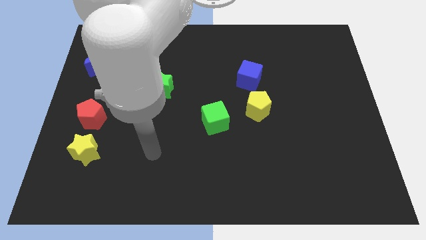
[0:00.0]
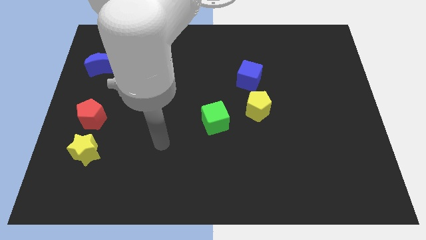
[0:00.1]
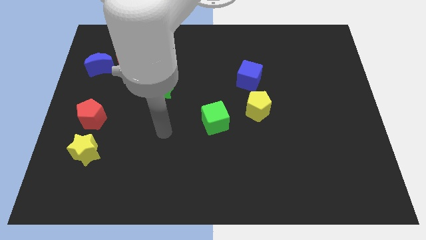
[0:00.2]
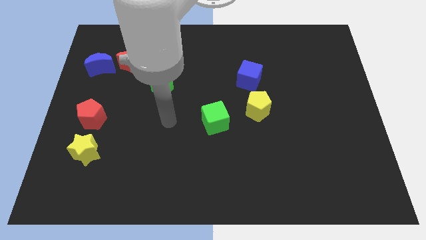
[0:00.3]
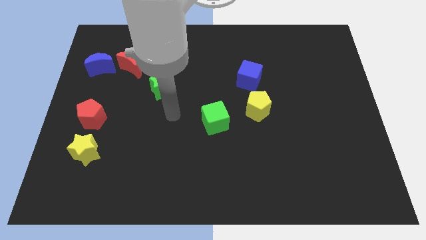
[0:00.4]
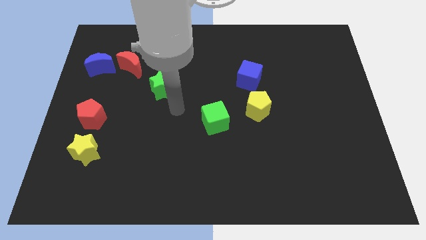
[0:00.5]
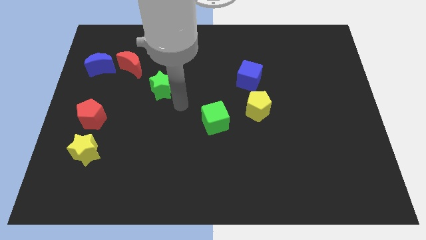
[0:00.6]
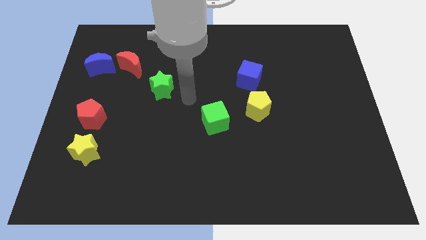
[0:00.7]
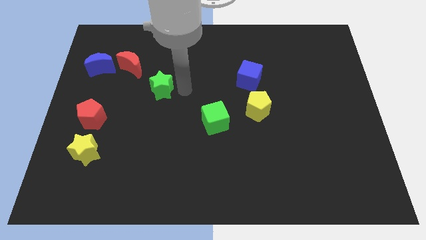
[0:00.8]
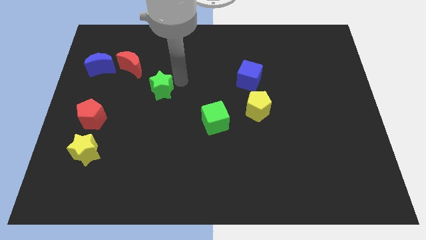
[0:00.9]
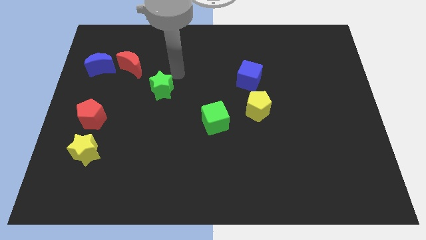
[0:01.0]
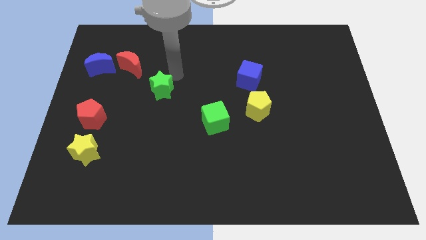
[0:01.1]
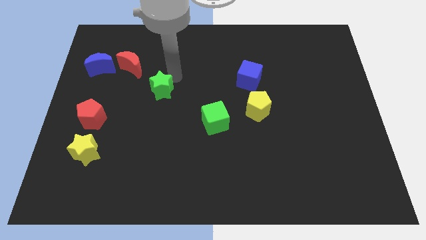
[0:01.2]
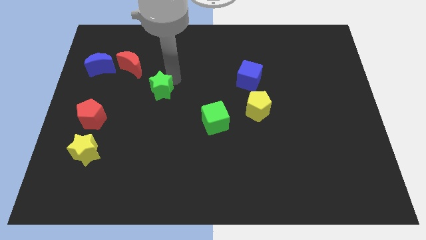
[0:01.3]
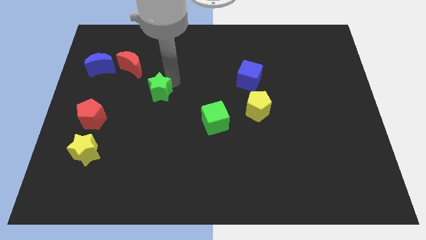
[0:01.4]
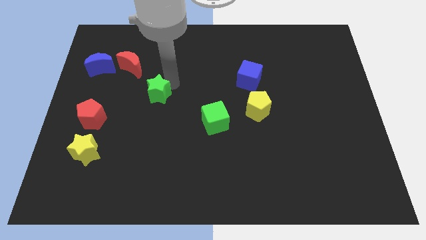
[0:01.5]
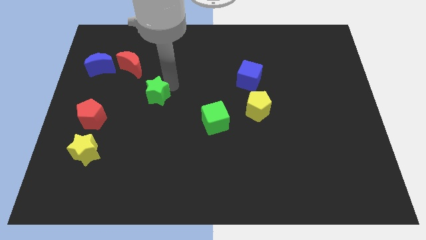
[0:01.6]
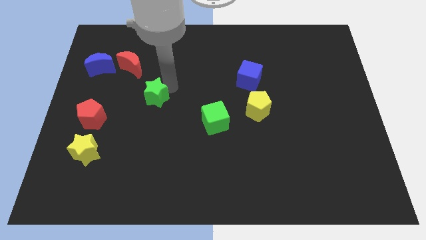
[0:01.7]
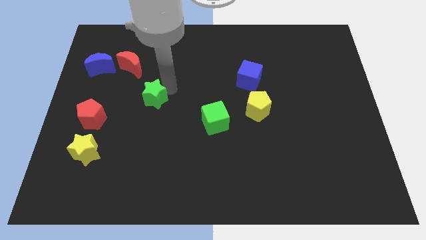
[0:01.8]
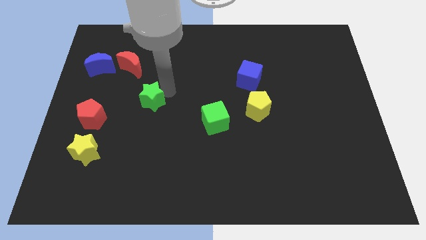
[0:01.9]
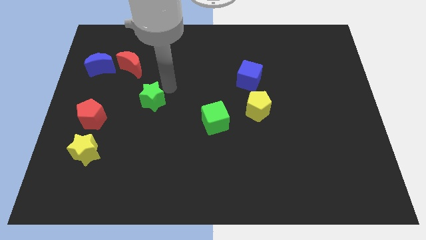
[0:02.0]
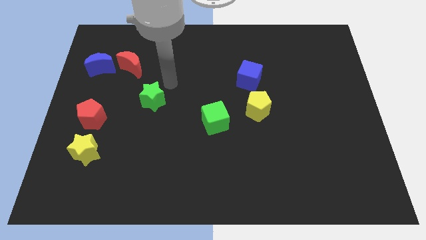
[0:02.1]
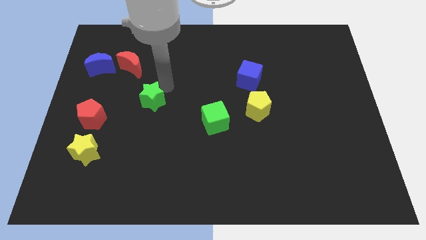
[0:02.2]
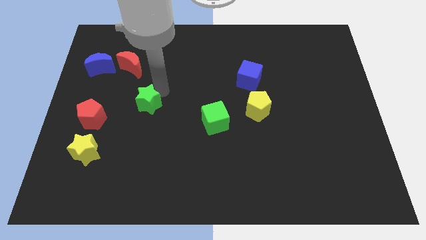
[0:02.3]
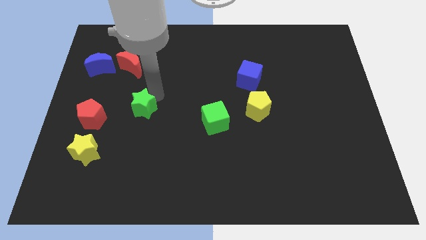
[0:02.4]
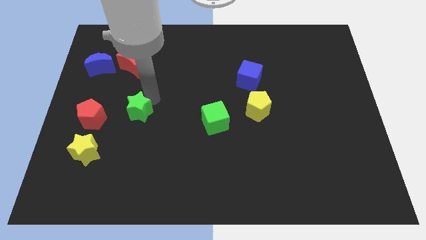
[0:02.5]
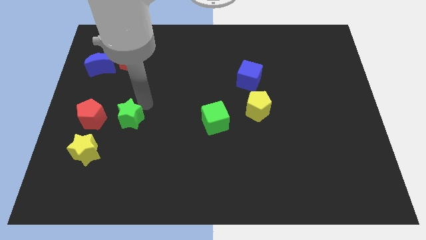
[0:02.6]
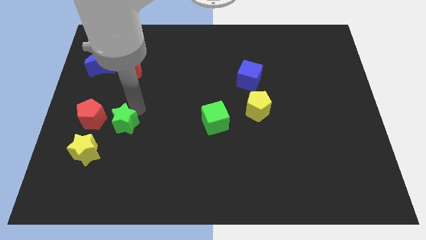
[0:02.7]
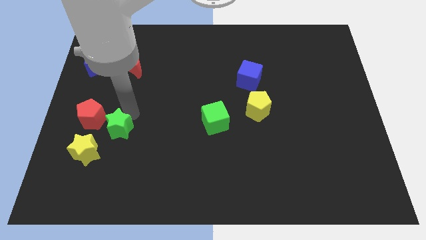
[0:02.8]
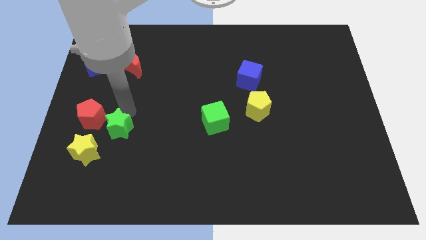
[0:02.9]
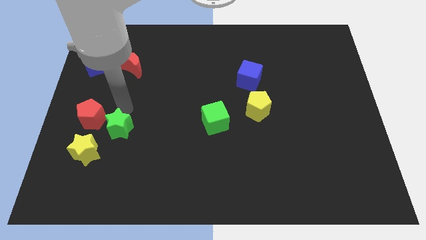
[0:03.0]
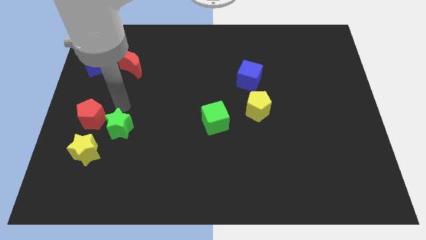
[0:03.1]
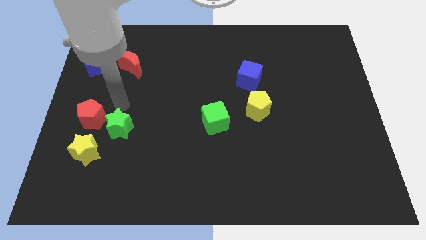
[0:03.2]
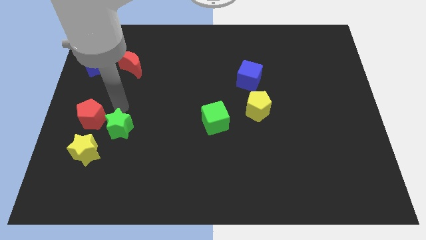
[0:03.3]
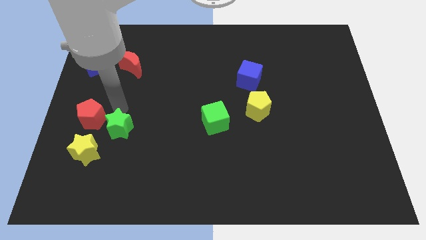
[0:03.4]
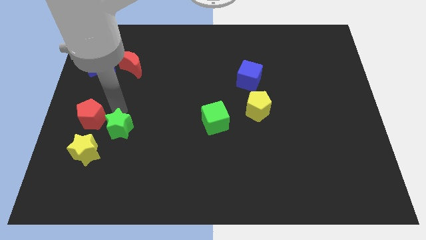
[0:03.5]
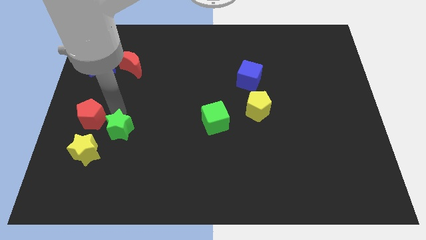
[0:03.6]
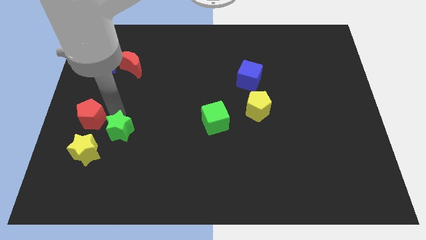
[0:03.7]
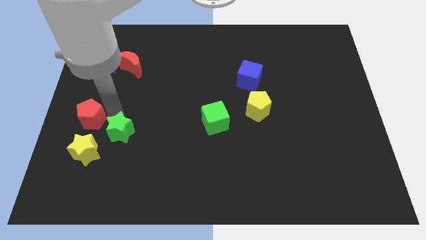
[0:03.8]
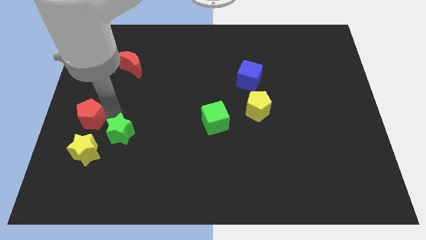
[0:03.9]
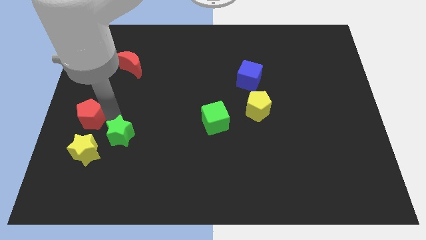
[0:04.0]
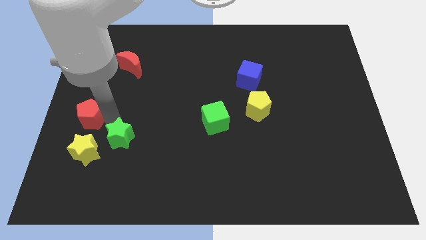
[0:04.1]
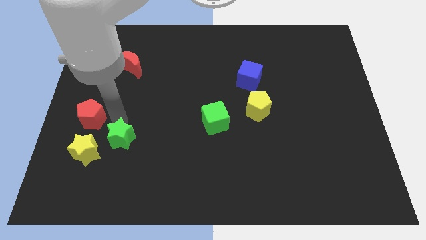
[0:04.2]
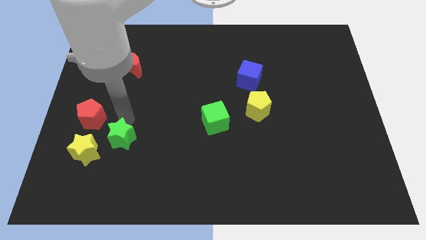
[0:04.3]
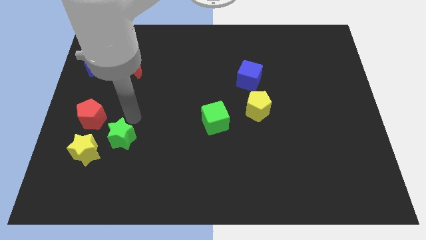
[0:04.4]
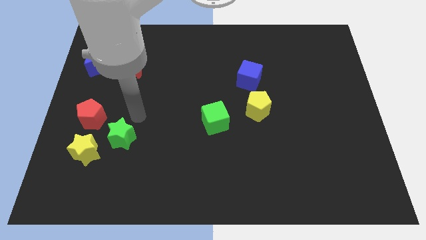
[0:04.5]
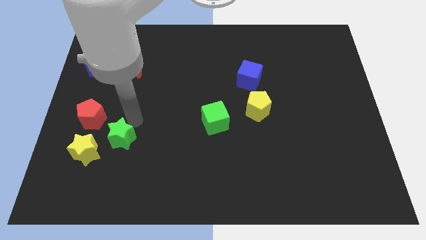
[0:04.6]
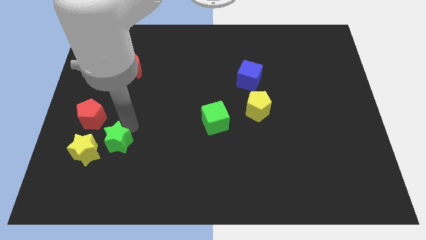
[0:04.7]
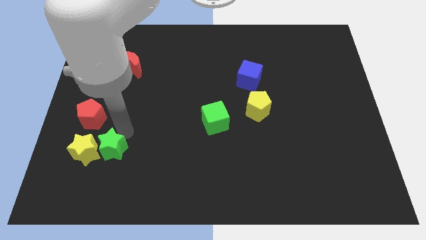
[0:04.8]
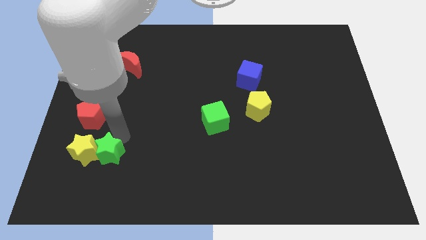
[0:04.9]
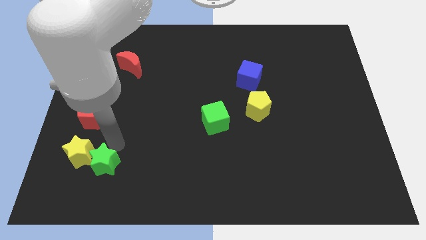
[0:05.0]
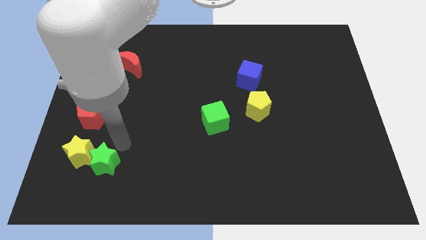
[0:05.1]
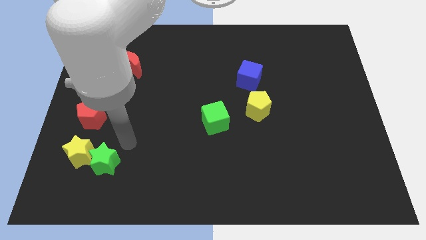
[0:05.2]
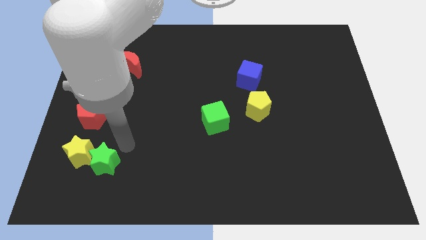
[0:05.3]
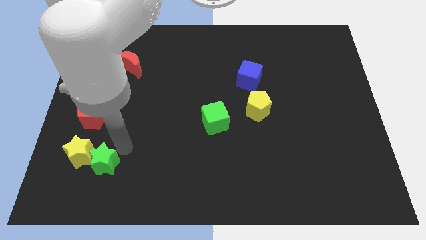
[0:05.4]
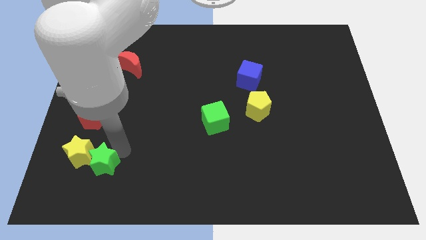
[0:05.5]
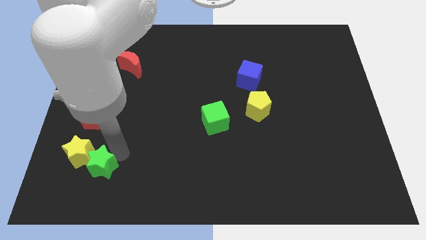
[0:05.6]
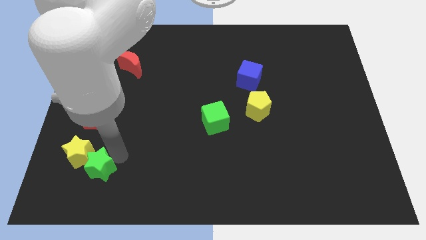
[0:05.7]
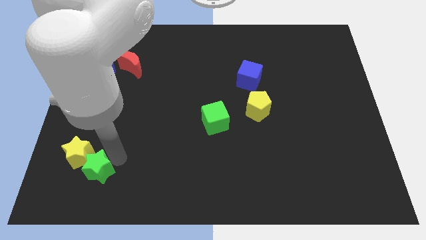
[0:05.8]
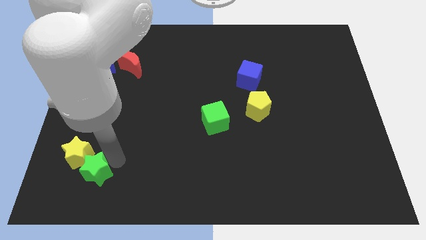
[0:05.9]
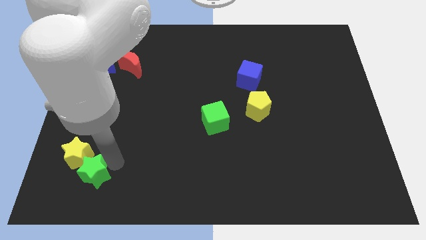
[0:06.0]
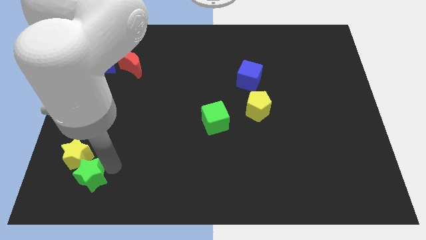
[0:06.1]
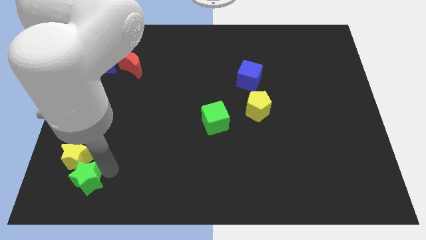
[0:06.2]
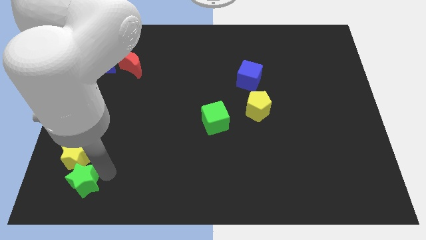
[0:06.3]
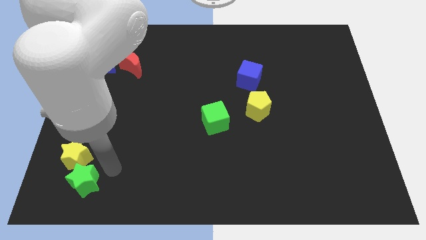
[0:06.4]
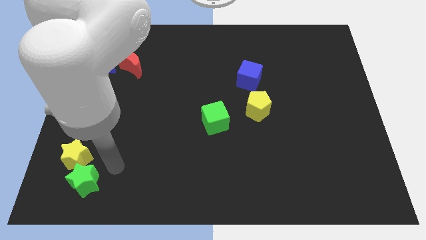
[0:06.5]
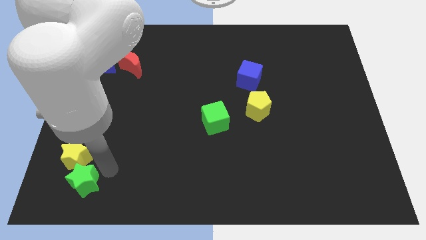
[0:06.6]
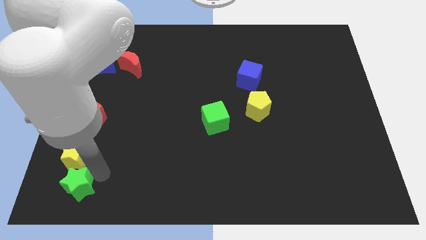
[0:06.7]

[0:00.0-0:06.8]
push the green star to the bottom left corner
